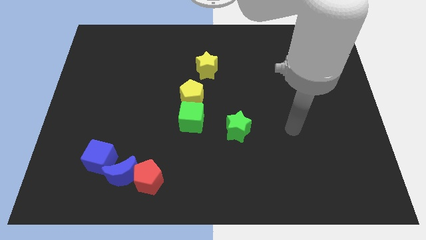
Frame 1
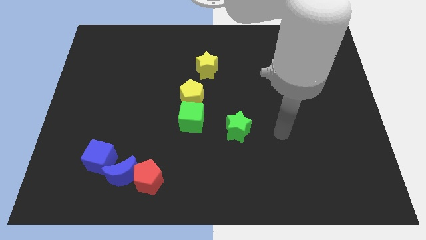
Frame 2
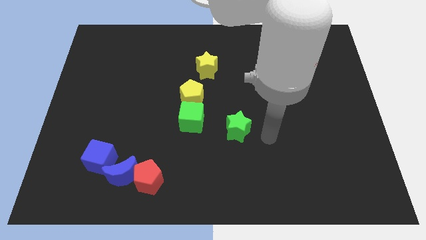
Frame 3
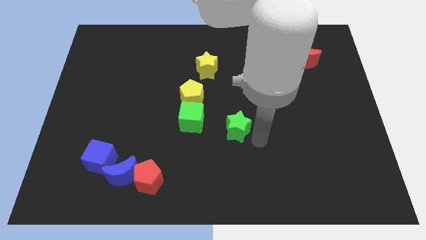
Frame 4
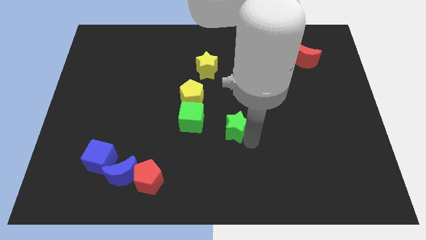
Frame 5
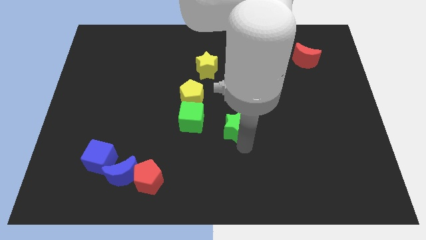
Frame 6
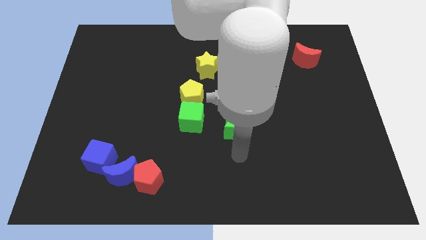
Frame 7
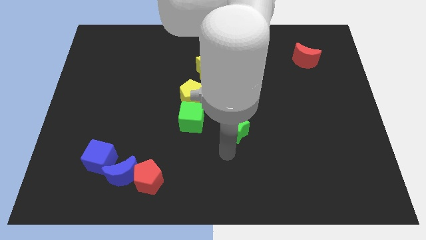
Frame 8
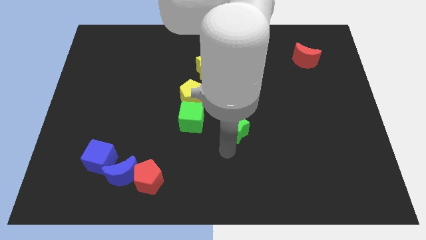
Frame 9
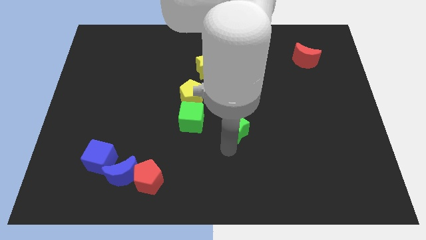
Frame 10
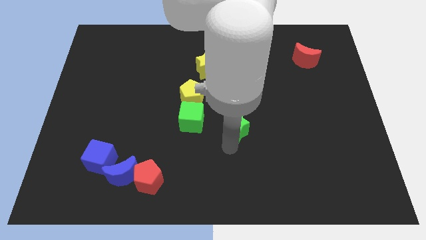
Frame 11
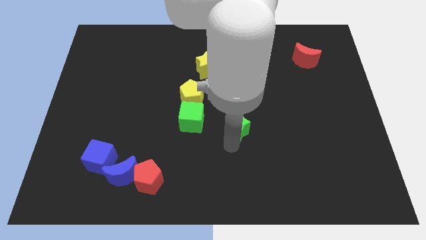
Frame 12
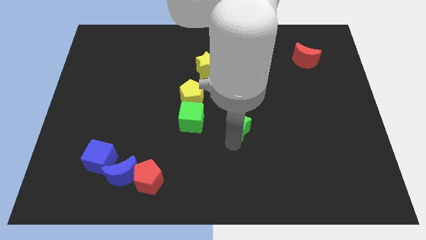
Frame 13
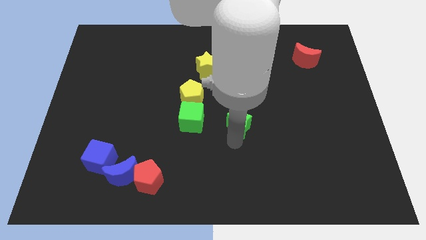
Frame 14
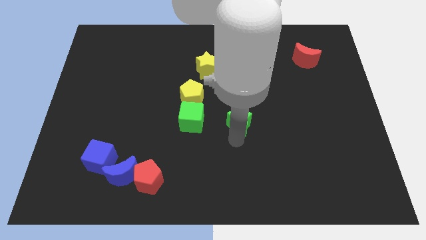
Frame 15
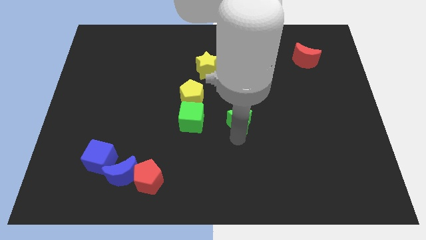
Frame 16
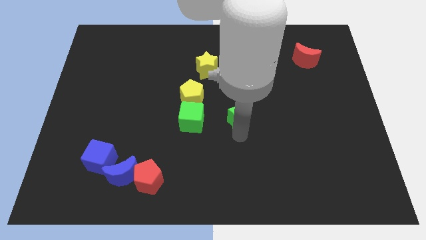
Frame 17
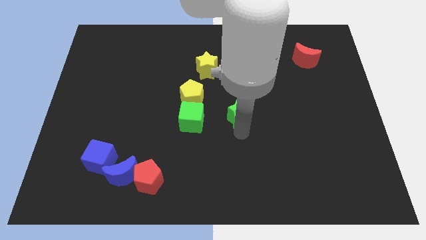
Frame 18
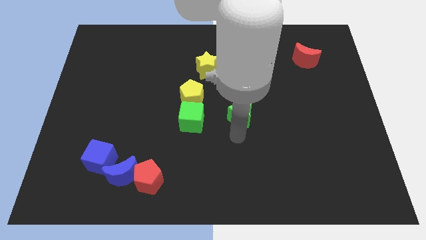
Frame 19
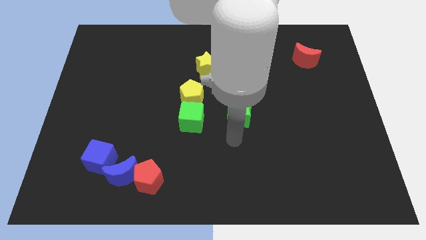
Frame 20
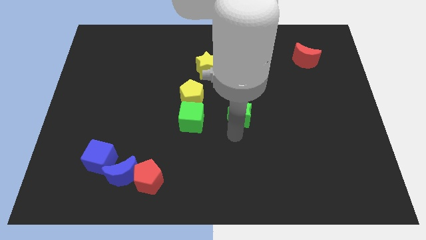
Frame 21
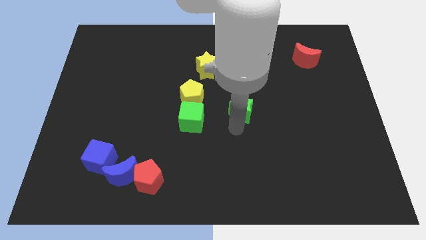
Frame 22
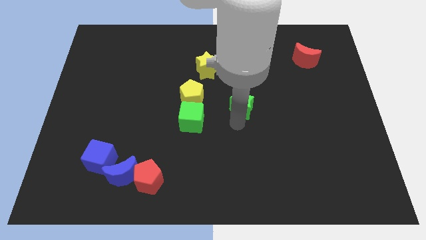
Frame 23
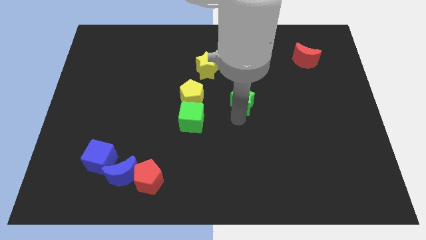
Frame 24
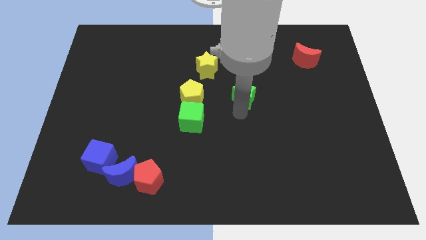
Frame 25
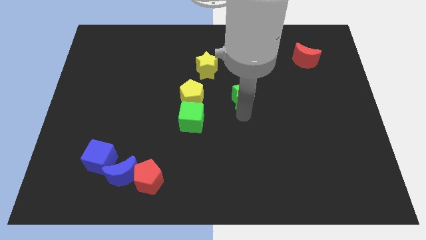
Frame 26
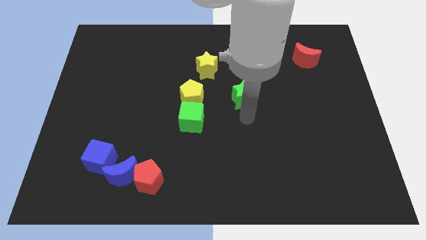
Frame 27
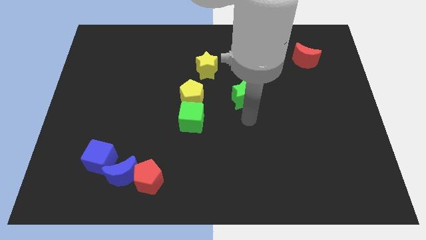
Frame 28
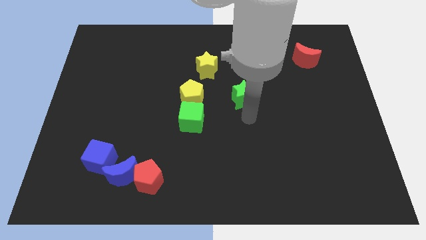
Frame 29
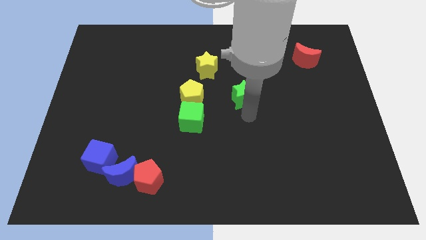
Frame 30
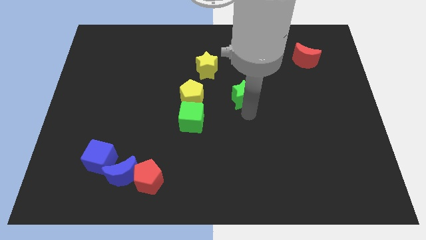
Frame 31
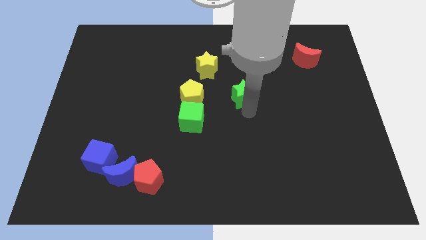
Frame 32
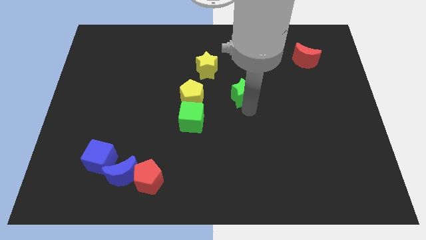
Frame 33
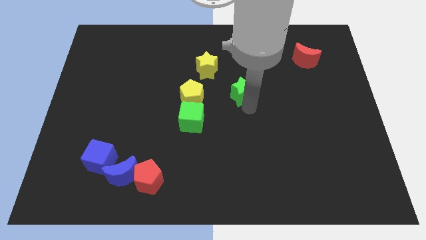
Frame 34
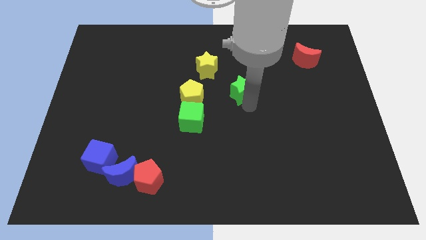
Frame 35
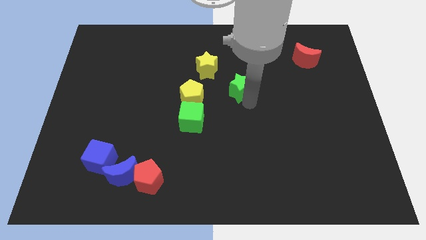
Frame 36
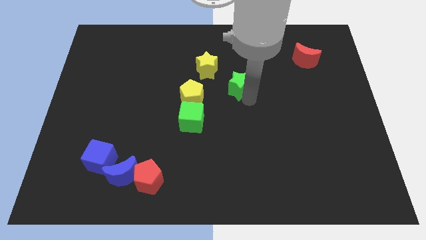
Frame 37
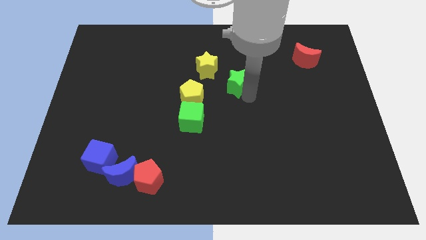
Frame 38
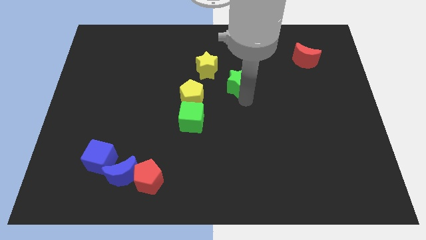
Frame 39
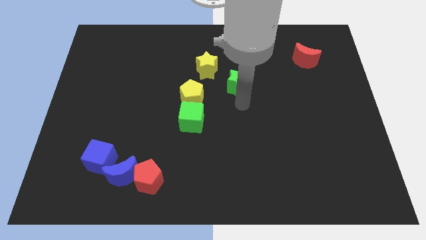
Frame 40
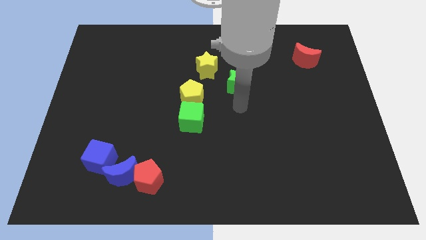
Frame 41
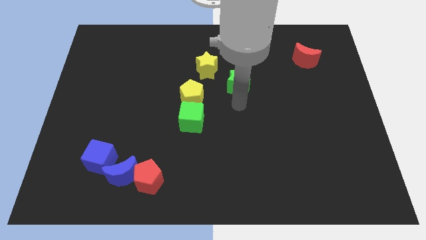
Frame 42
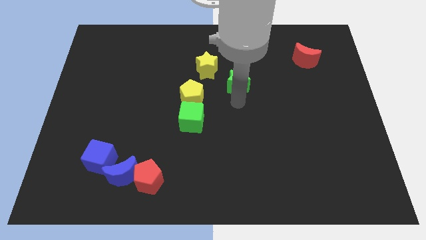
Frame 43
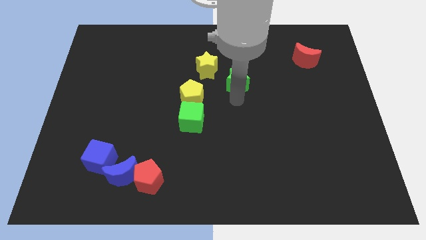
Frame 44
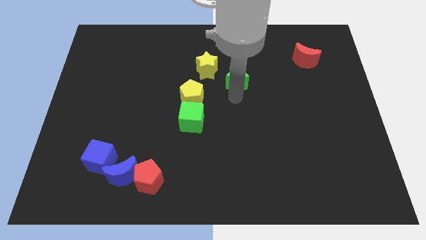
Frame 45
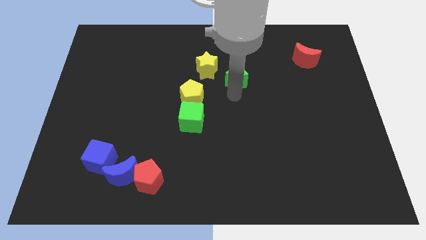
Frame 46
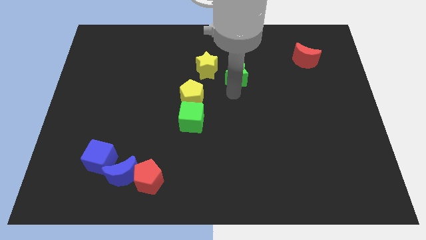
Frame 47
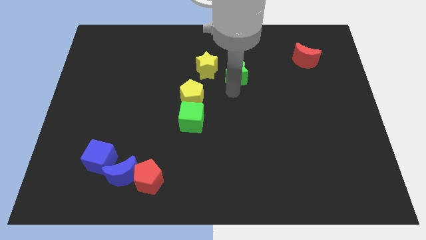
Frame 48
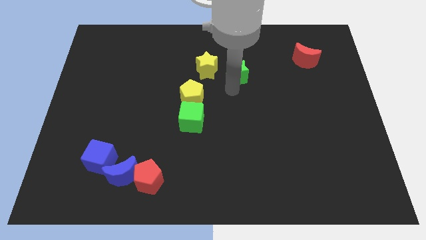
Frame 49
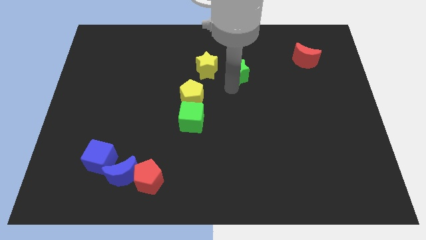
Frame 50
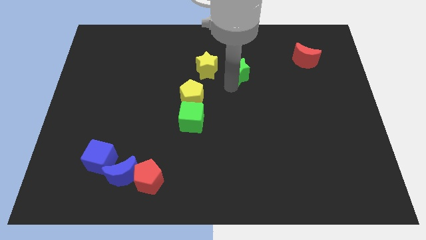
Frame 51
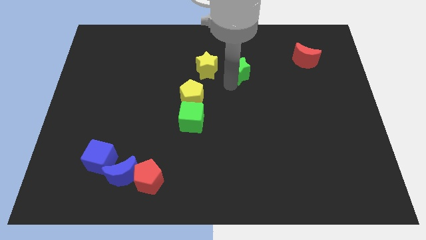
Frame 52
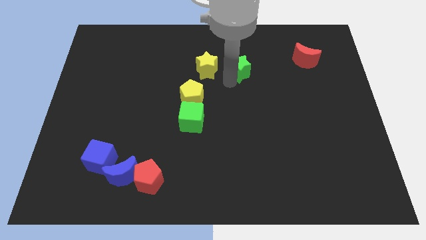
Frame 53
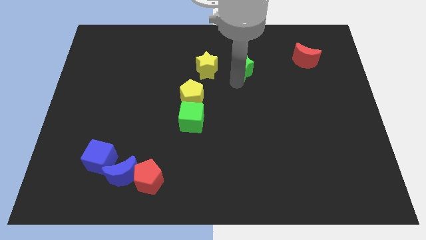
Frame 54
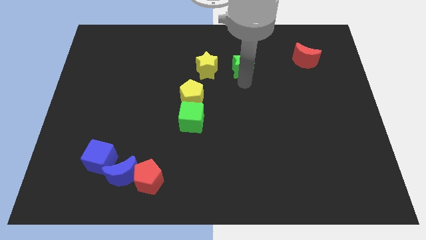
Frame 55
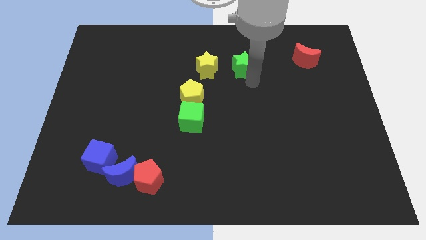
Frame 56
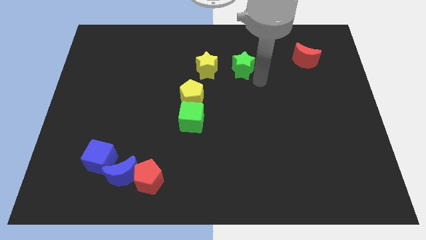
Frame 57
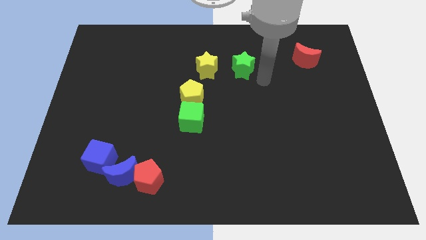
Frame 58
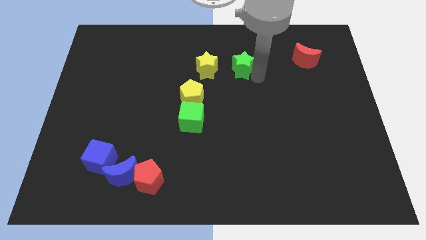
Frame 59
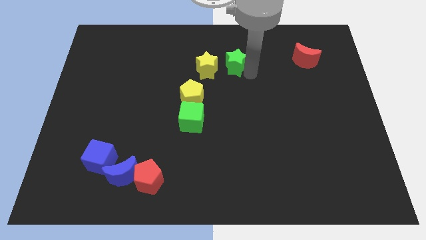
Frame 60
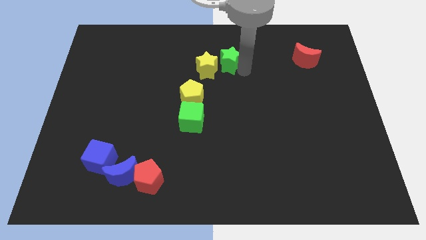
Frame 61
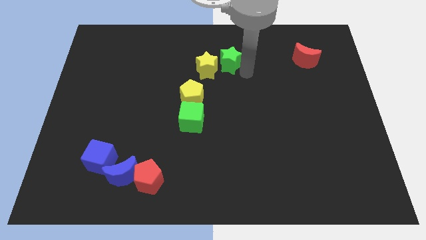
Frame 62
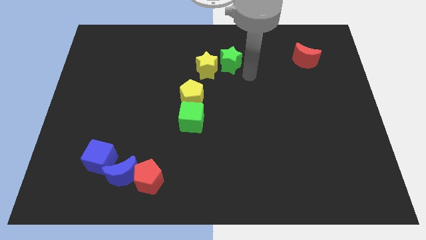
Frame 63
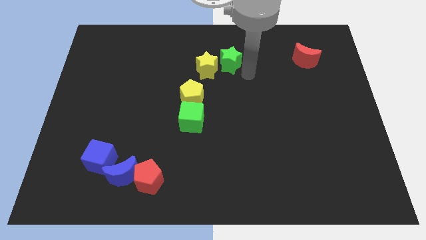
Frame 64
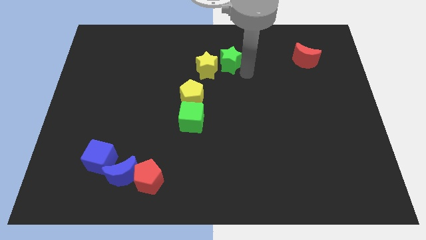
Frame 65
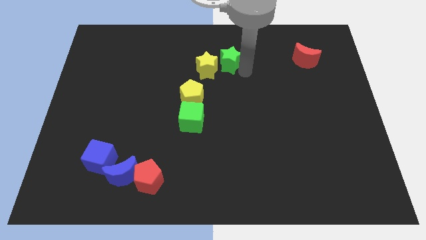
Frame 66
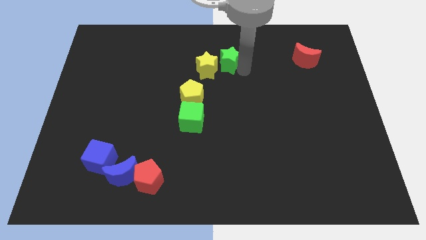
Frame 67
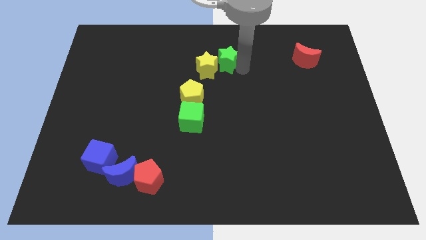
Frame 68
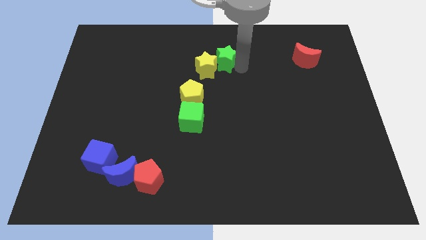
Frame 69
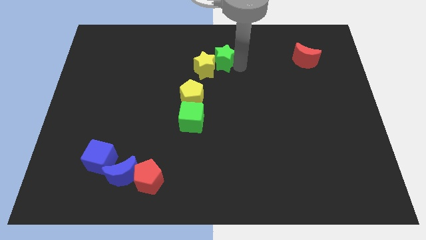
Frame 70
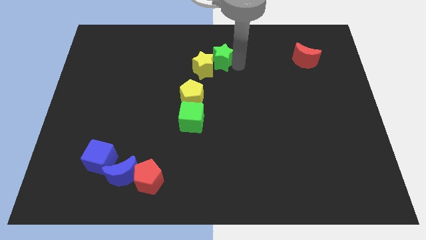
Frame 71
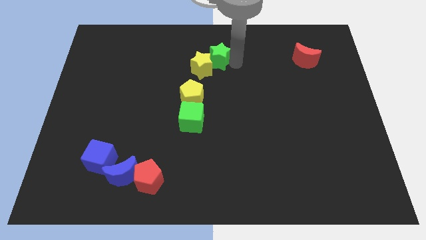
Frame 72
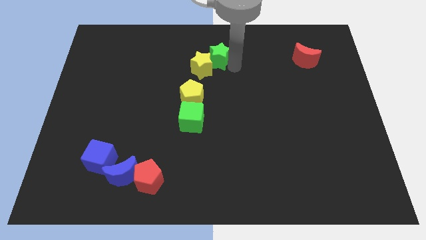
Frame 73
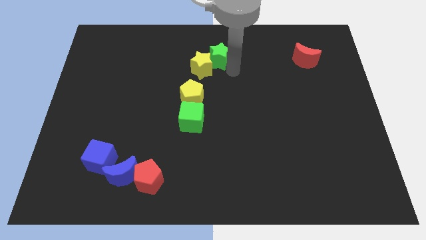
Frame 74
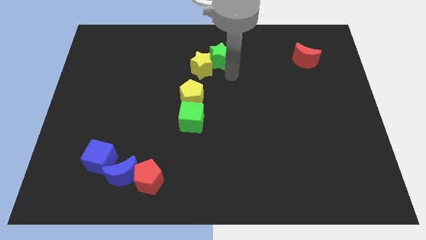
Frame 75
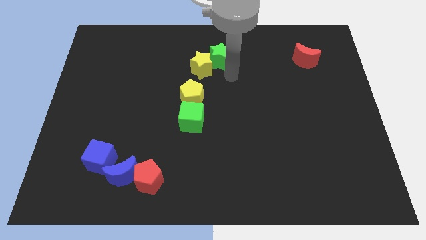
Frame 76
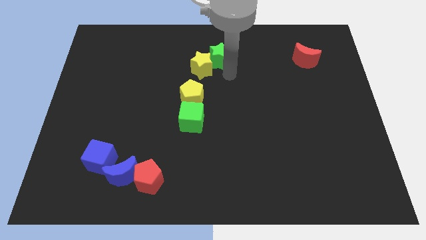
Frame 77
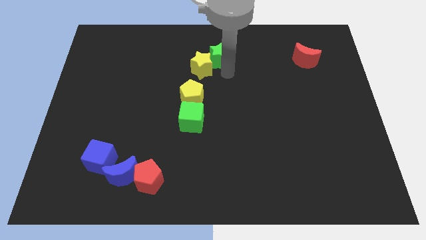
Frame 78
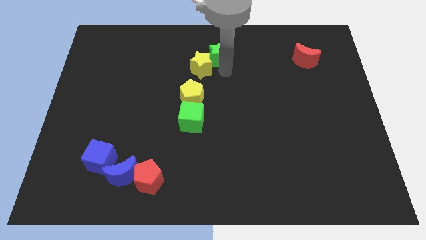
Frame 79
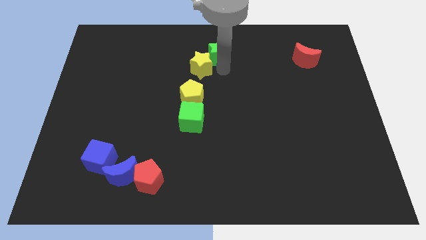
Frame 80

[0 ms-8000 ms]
move the green star to the towards your base
